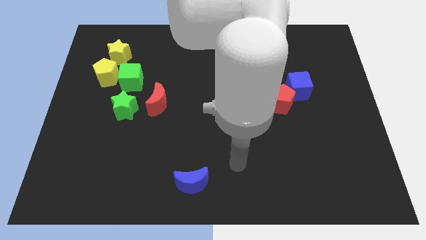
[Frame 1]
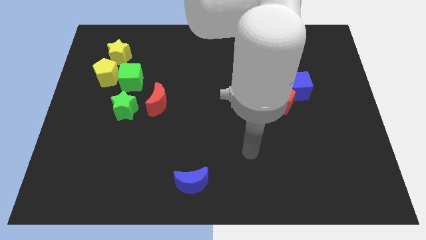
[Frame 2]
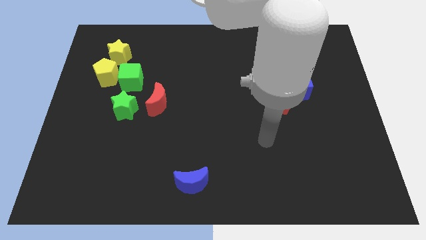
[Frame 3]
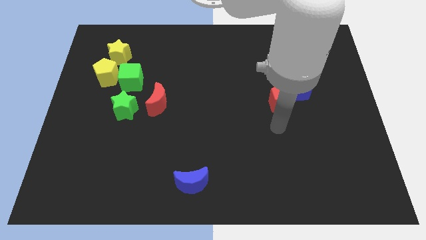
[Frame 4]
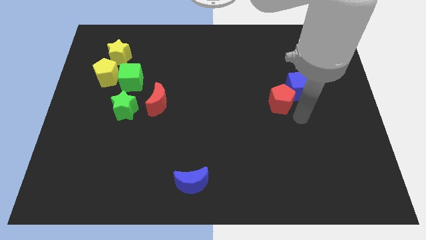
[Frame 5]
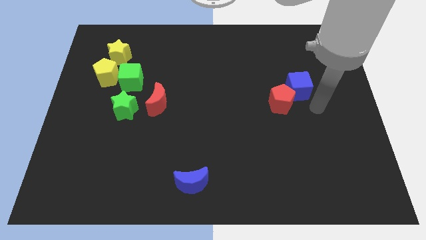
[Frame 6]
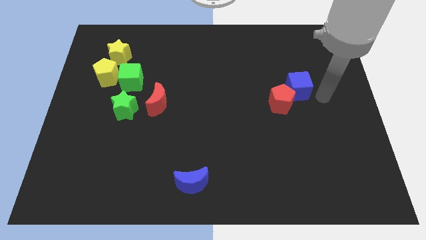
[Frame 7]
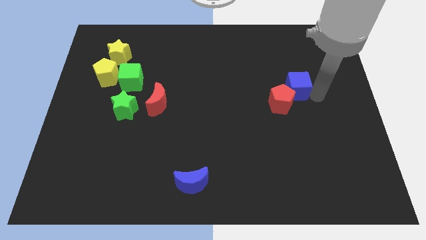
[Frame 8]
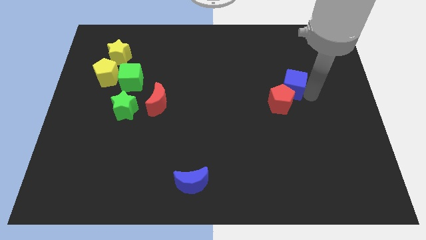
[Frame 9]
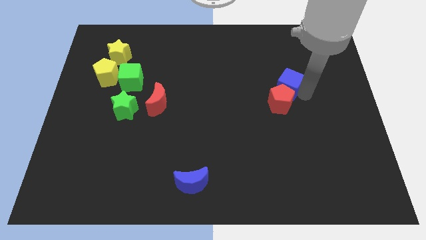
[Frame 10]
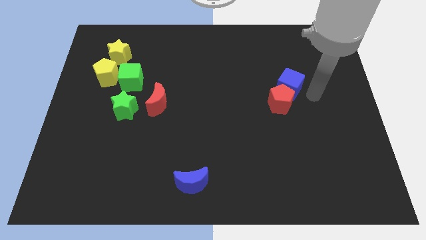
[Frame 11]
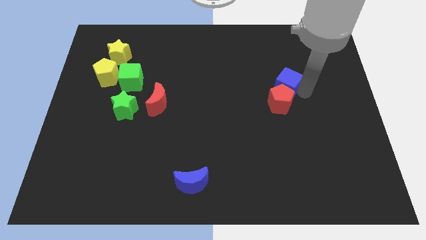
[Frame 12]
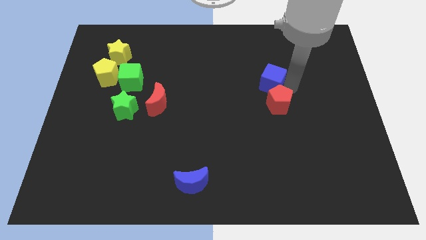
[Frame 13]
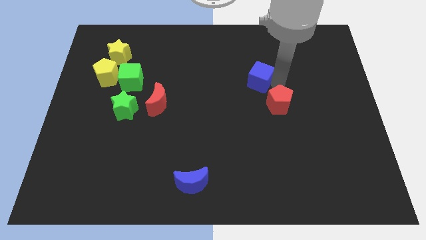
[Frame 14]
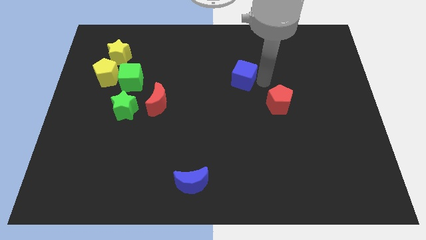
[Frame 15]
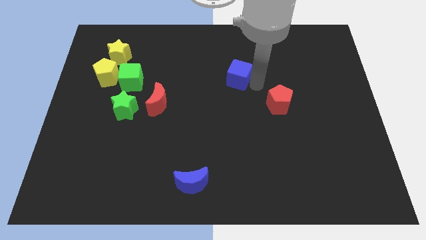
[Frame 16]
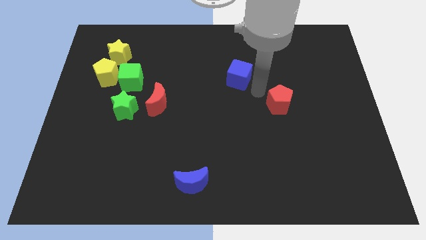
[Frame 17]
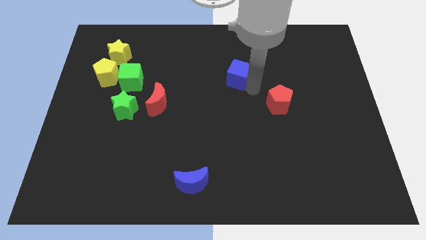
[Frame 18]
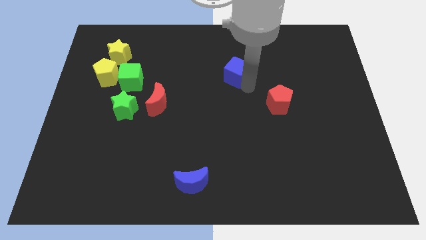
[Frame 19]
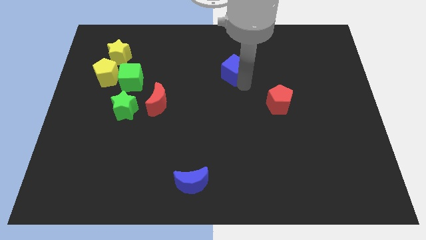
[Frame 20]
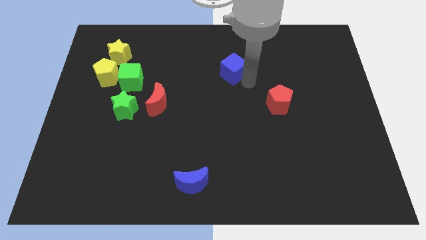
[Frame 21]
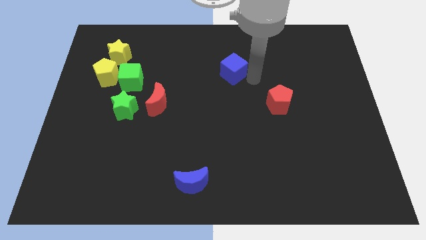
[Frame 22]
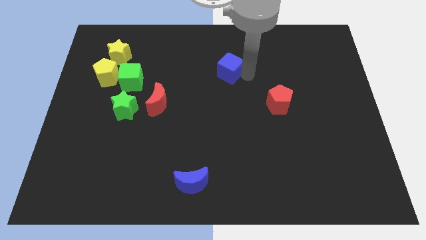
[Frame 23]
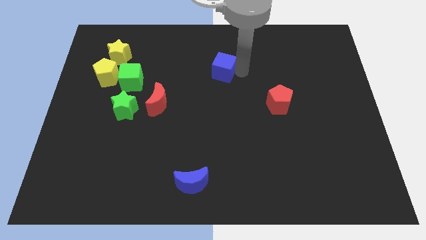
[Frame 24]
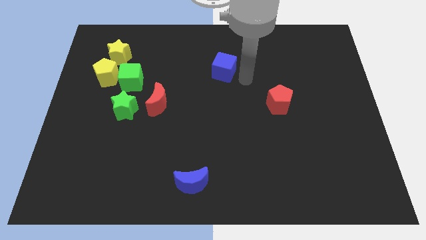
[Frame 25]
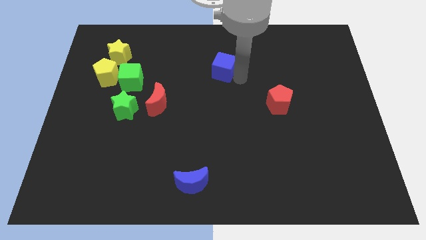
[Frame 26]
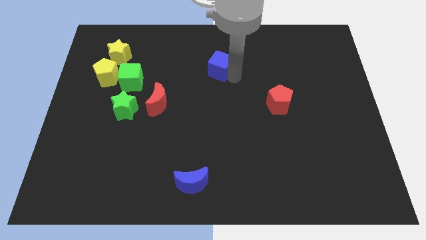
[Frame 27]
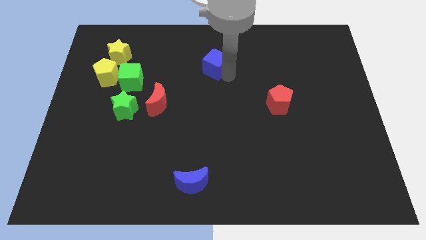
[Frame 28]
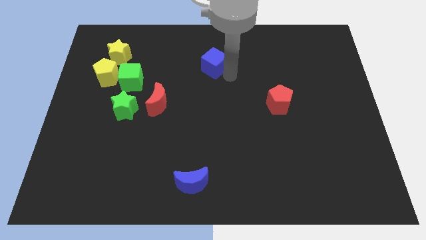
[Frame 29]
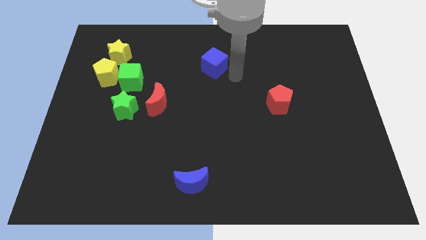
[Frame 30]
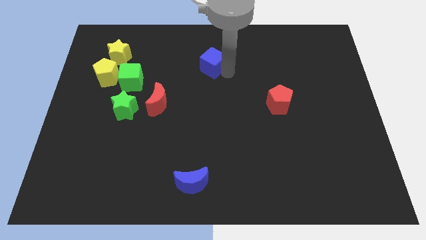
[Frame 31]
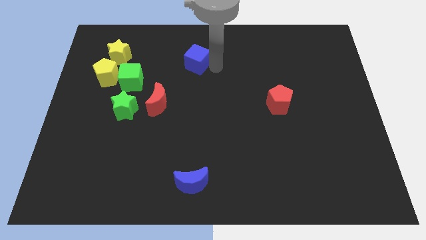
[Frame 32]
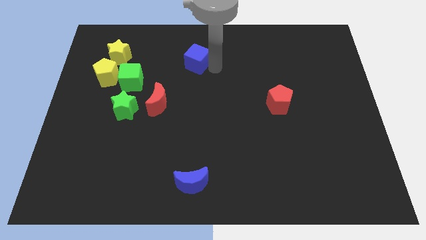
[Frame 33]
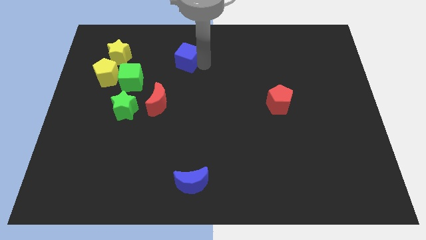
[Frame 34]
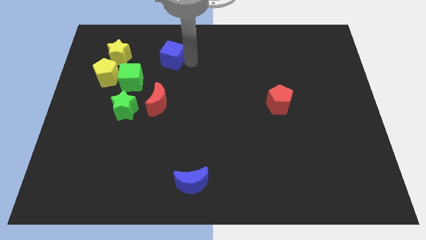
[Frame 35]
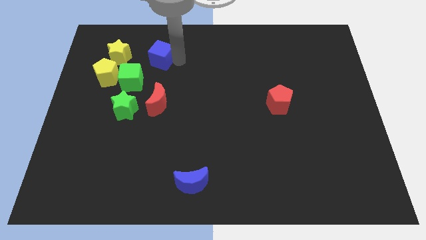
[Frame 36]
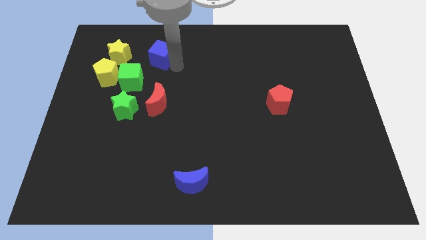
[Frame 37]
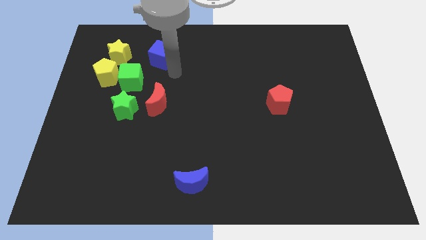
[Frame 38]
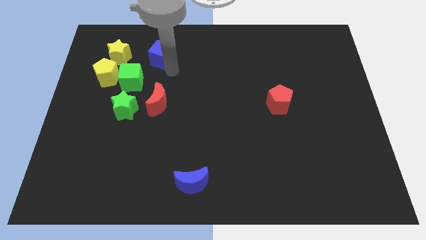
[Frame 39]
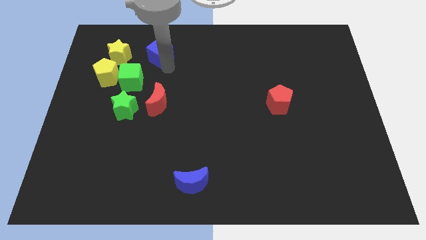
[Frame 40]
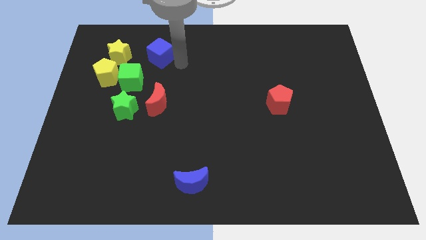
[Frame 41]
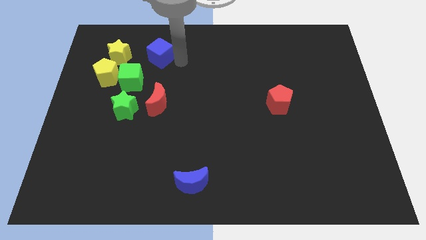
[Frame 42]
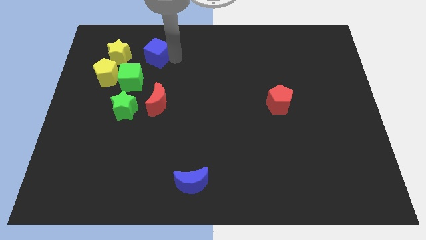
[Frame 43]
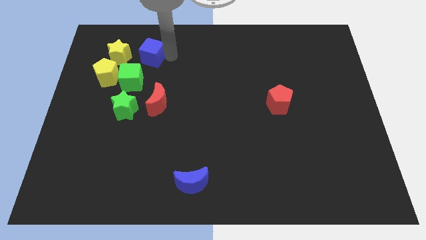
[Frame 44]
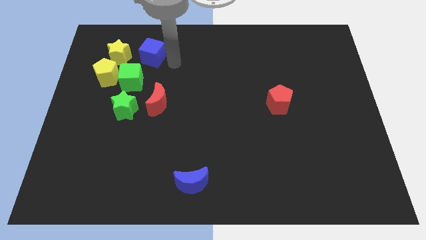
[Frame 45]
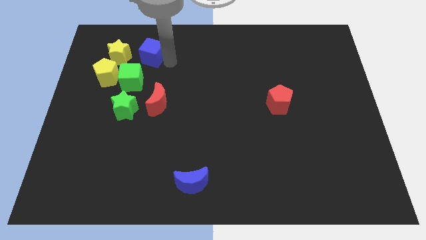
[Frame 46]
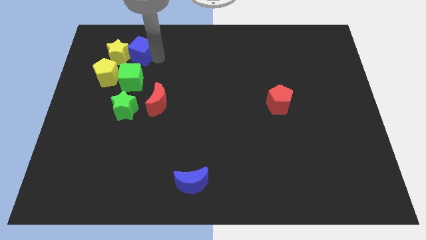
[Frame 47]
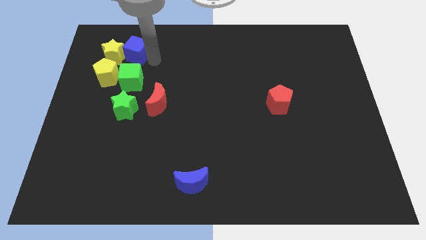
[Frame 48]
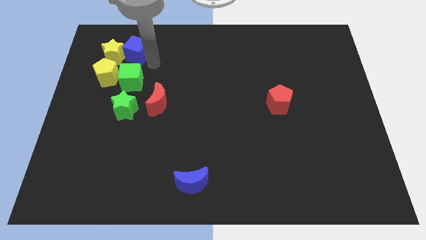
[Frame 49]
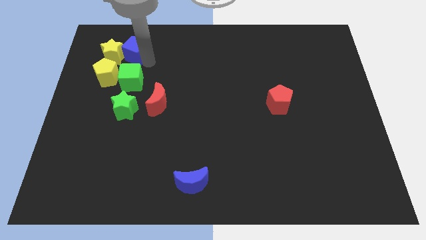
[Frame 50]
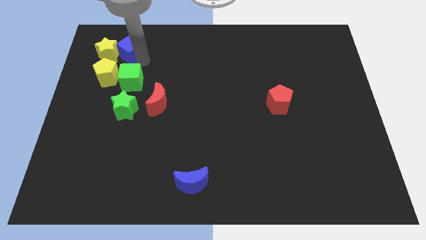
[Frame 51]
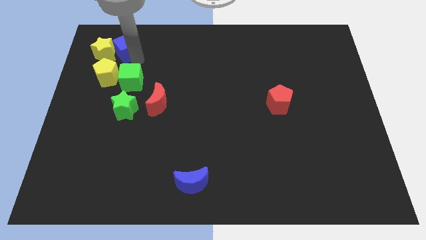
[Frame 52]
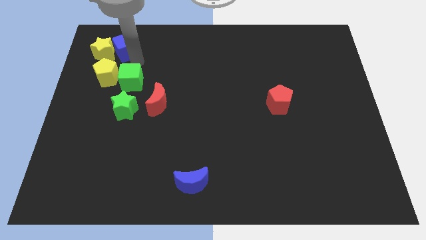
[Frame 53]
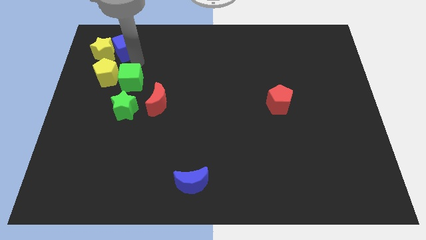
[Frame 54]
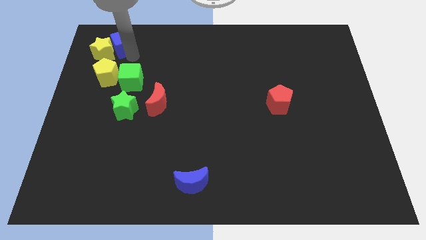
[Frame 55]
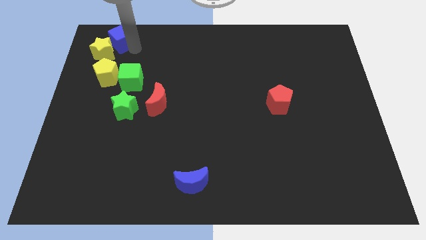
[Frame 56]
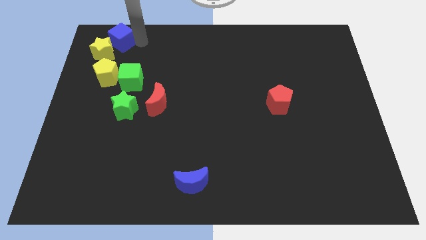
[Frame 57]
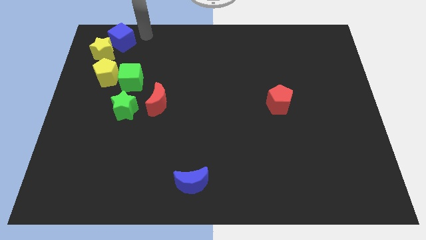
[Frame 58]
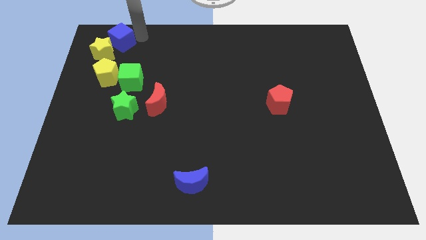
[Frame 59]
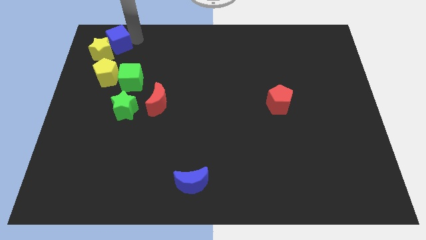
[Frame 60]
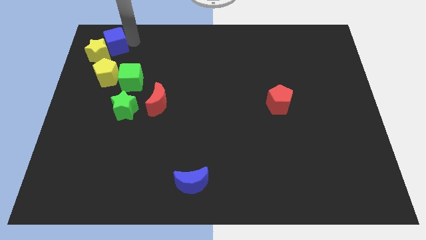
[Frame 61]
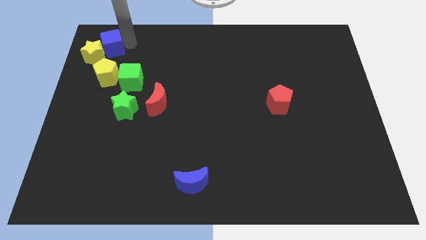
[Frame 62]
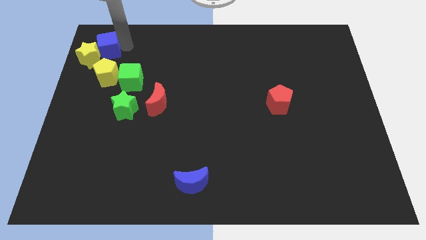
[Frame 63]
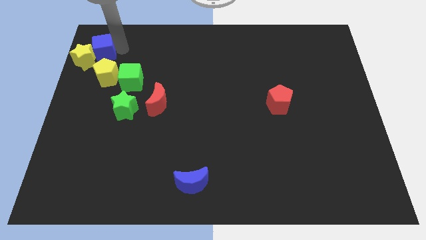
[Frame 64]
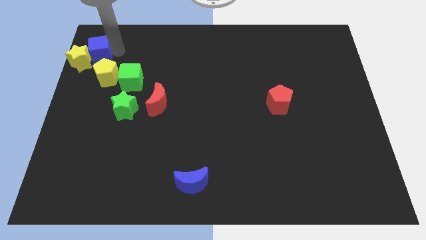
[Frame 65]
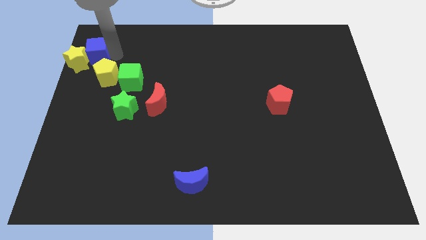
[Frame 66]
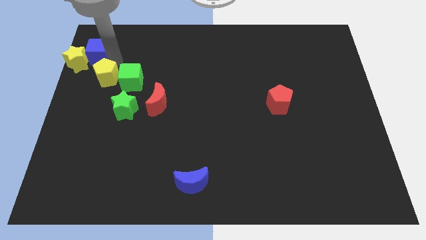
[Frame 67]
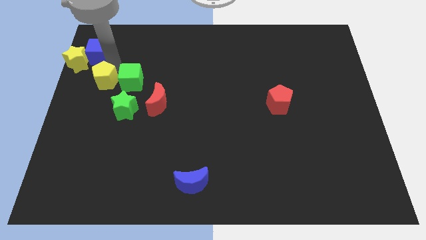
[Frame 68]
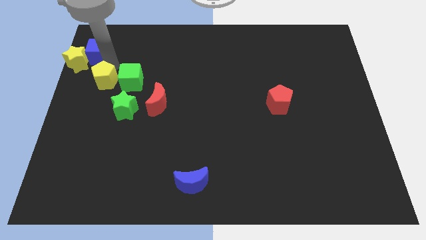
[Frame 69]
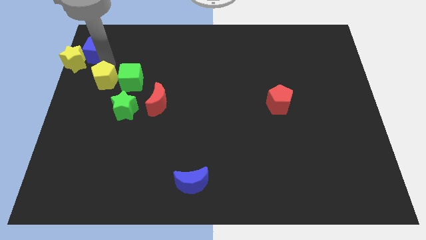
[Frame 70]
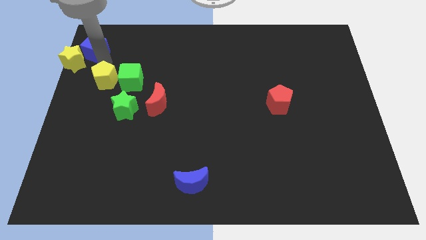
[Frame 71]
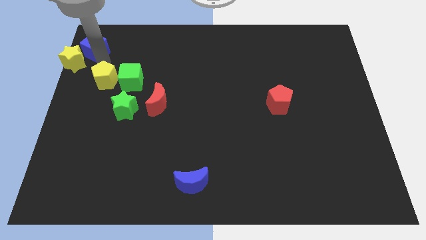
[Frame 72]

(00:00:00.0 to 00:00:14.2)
move the blue cube to the upper left corner
